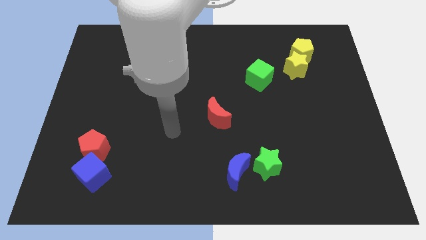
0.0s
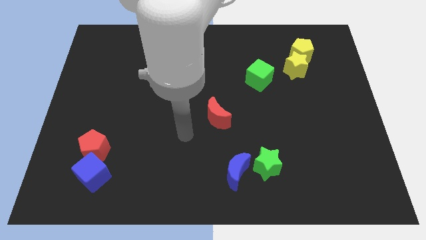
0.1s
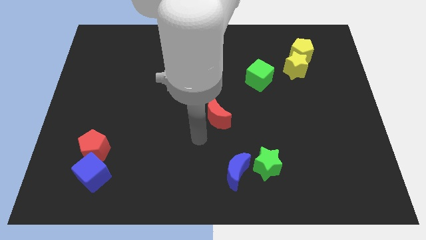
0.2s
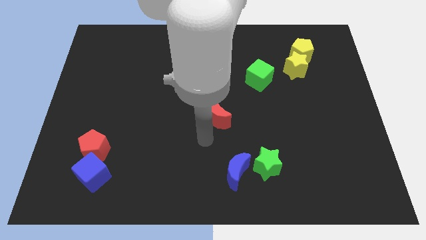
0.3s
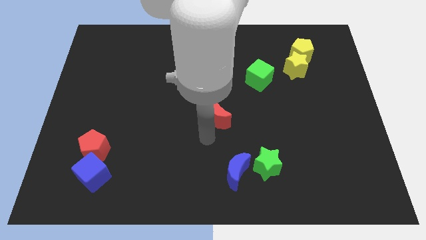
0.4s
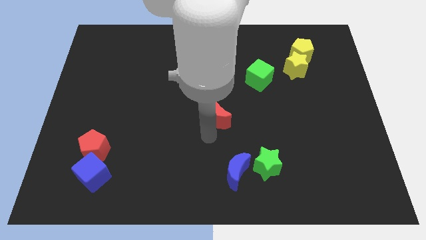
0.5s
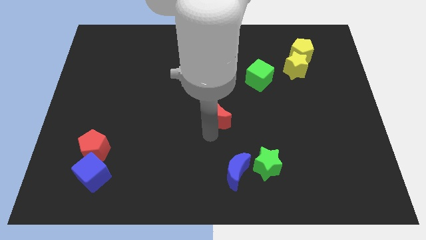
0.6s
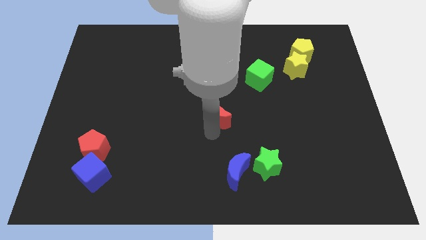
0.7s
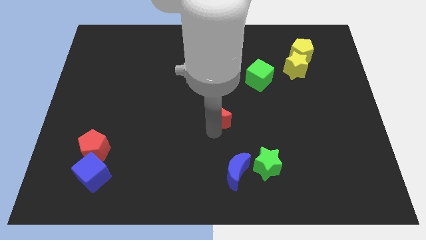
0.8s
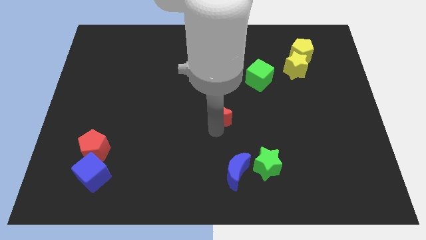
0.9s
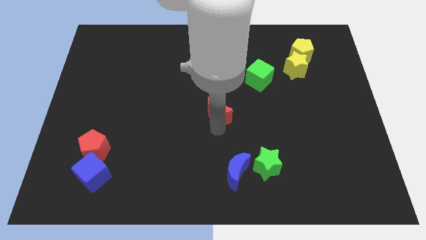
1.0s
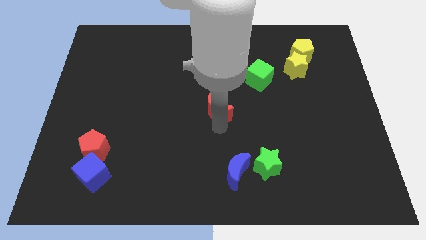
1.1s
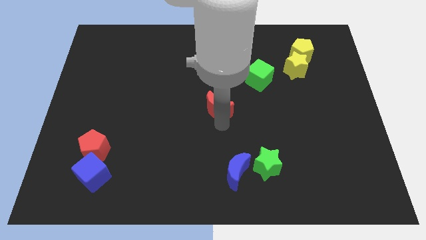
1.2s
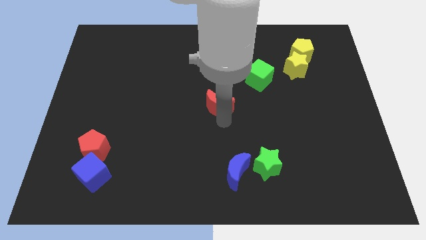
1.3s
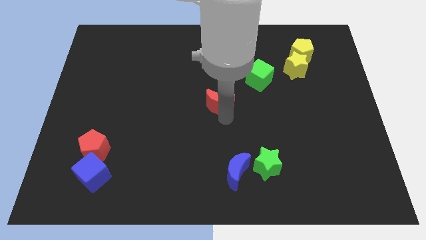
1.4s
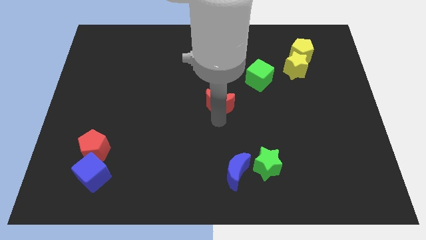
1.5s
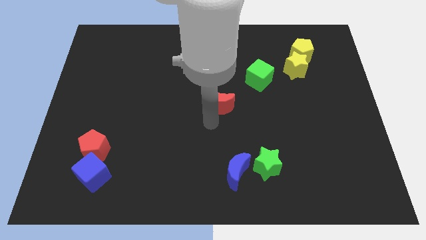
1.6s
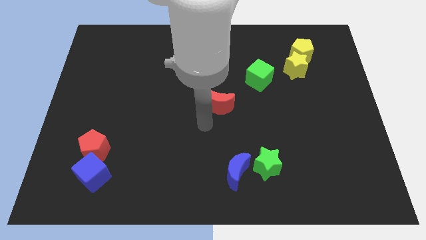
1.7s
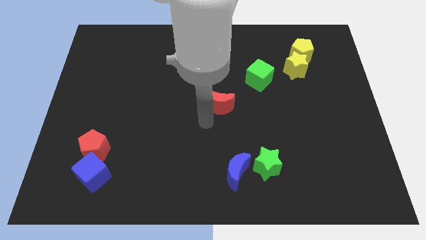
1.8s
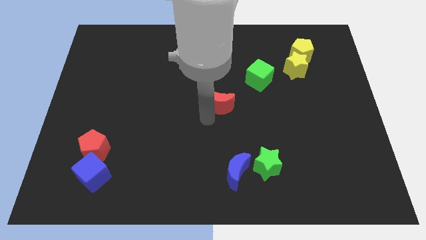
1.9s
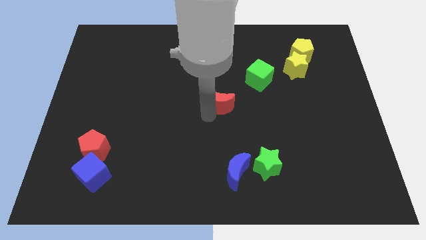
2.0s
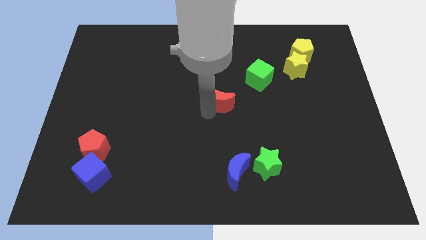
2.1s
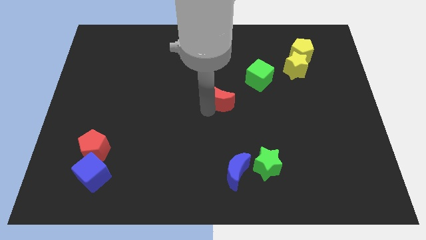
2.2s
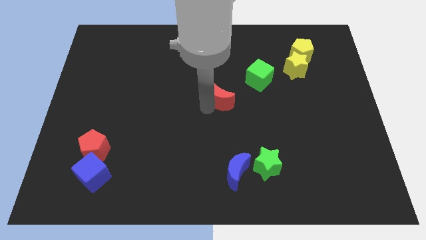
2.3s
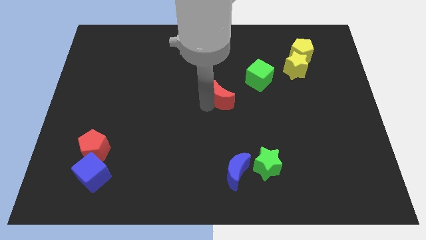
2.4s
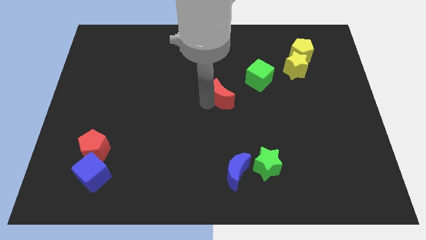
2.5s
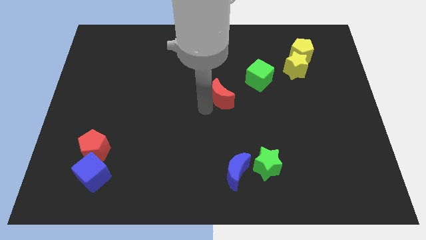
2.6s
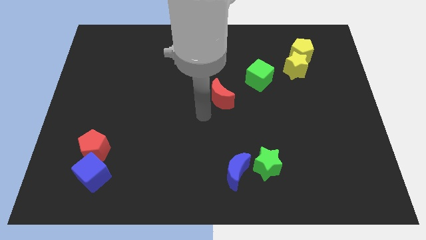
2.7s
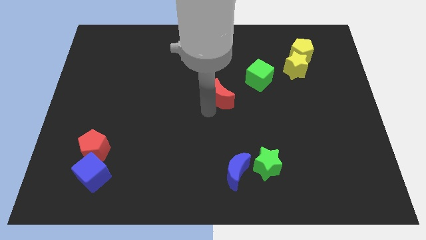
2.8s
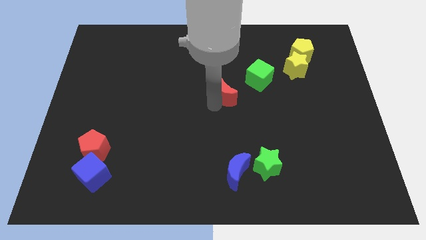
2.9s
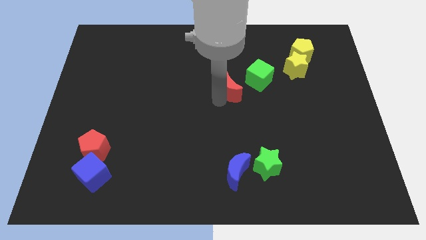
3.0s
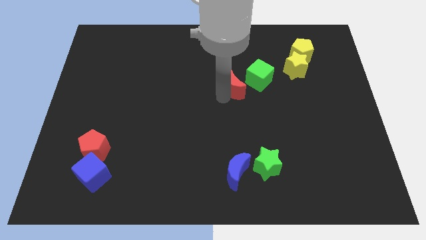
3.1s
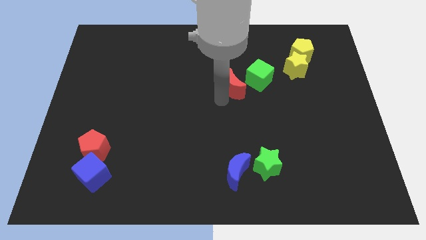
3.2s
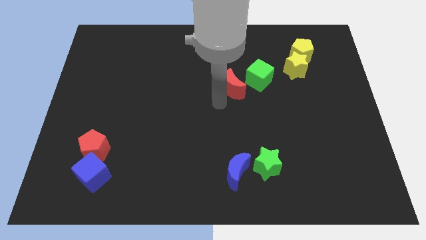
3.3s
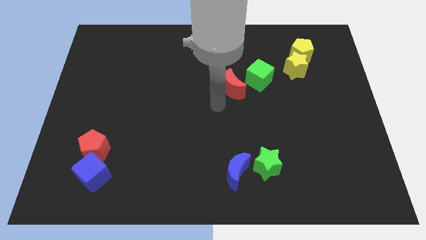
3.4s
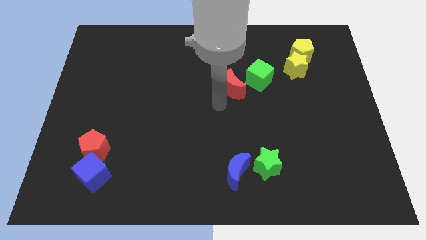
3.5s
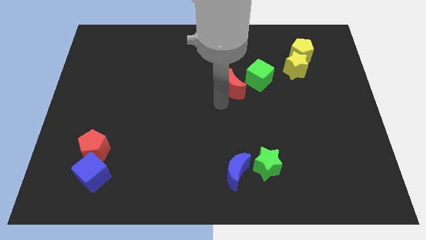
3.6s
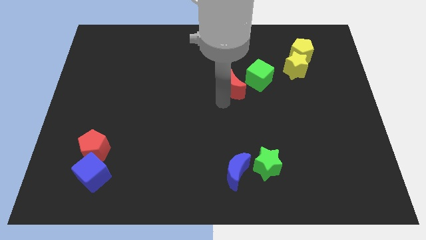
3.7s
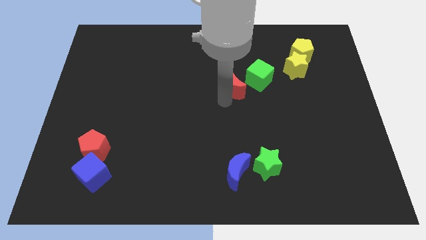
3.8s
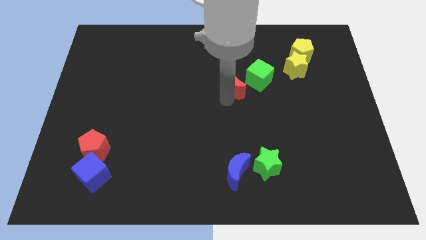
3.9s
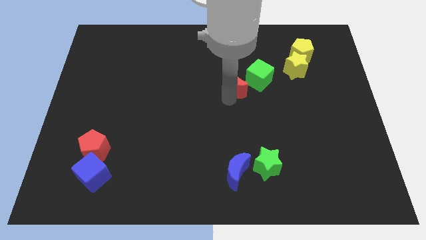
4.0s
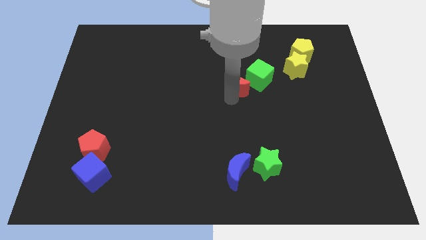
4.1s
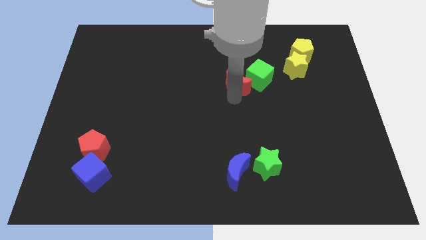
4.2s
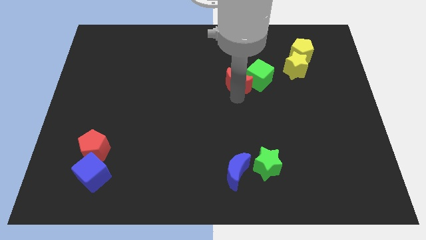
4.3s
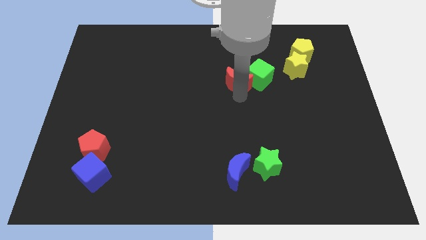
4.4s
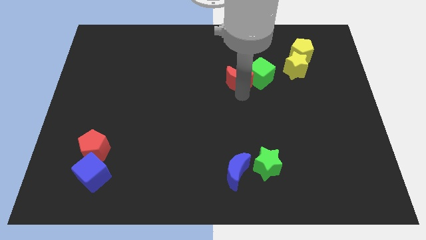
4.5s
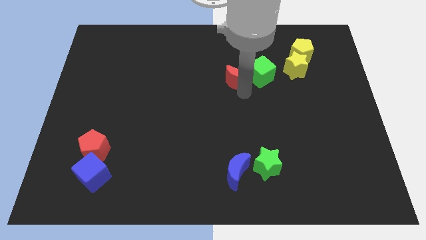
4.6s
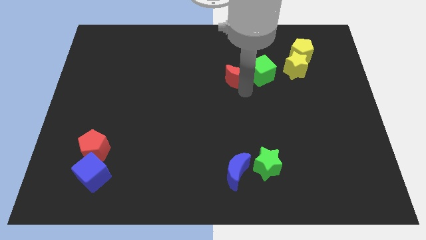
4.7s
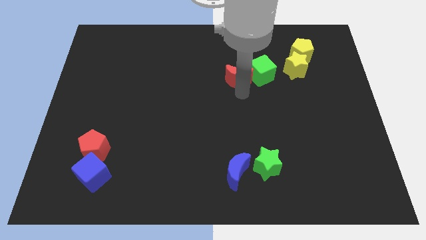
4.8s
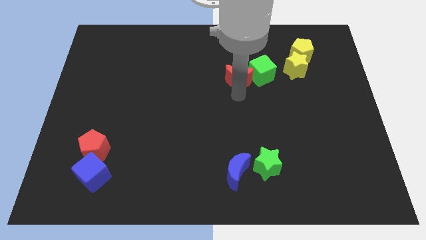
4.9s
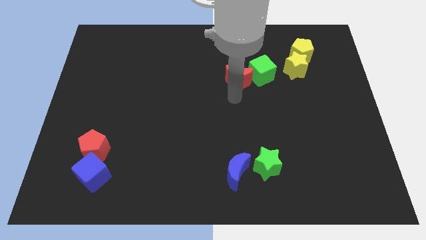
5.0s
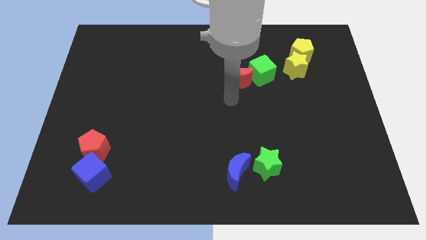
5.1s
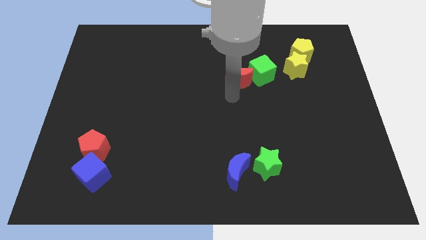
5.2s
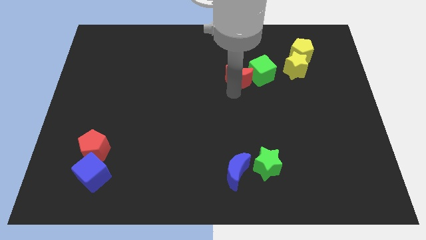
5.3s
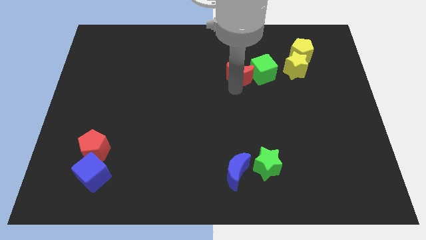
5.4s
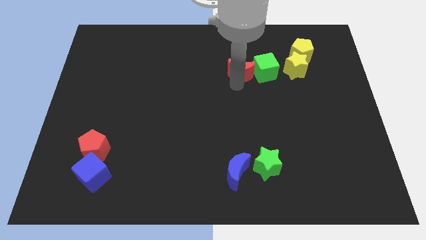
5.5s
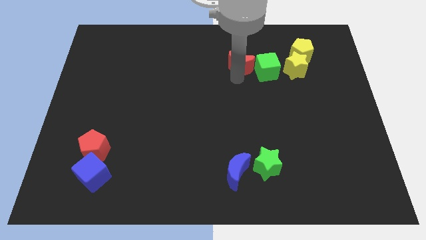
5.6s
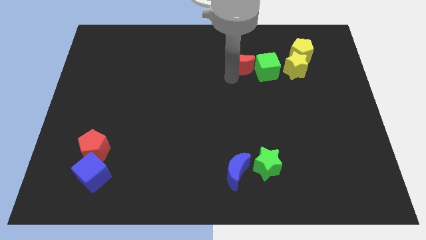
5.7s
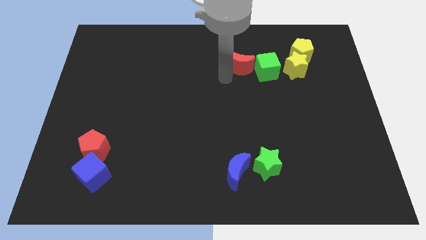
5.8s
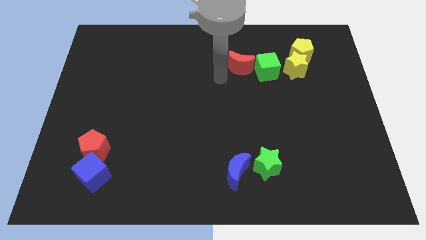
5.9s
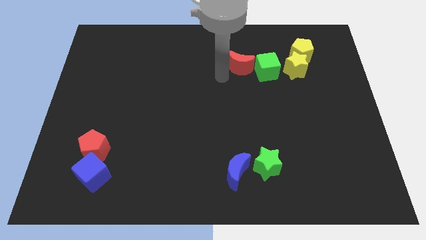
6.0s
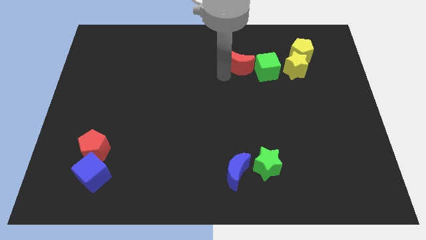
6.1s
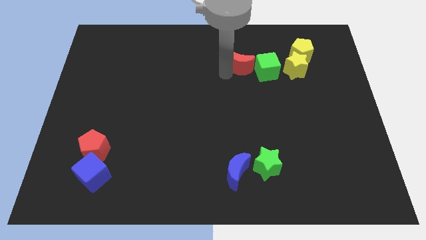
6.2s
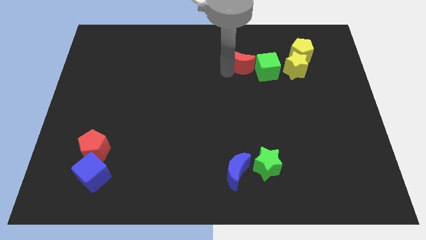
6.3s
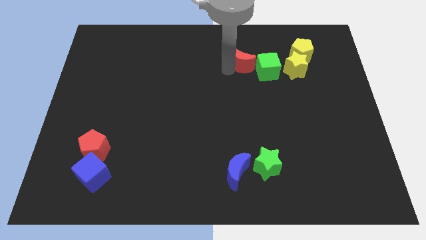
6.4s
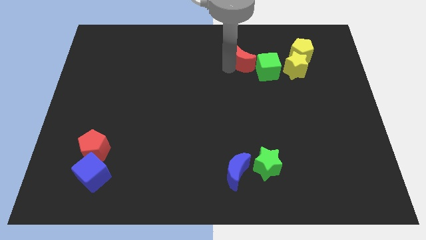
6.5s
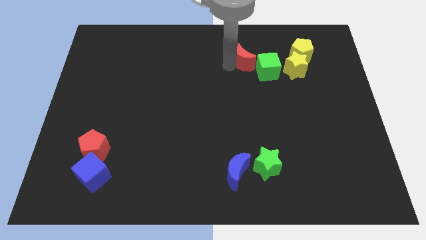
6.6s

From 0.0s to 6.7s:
put the red moon to the left of the yellow pentagon

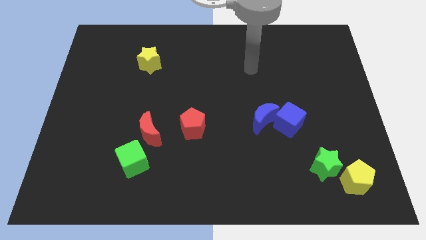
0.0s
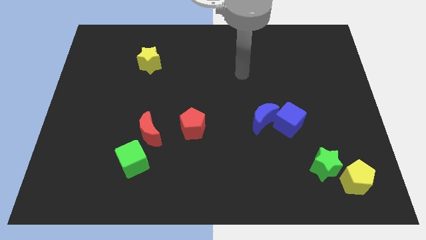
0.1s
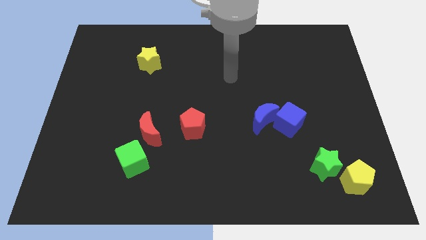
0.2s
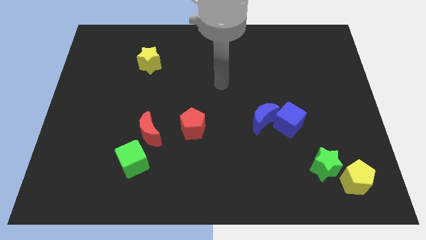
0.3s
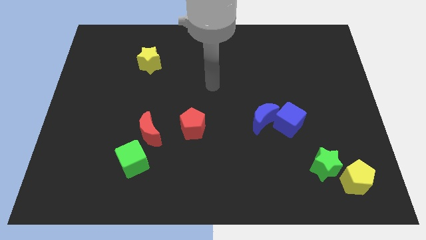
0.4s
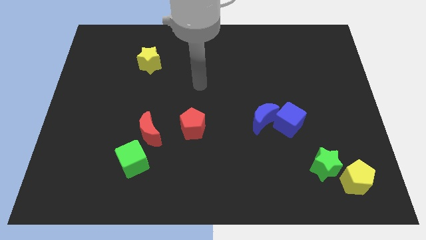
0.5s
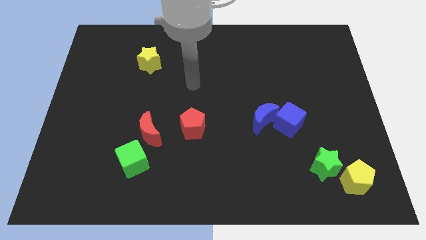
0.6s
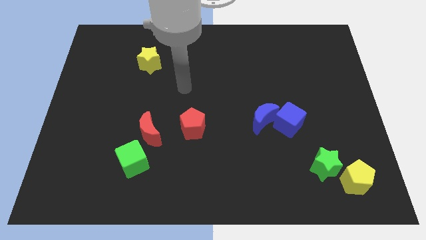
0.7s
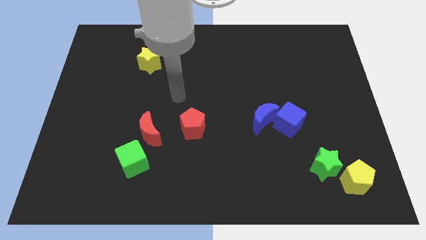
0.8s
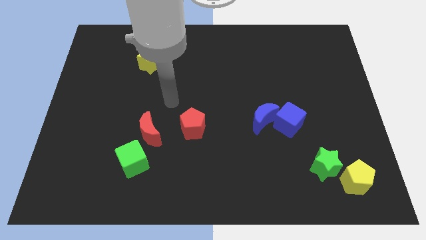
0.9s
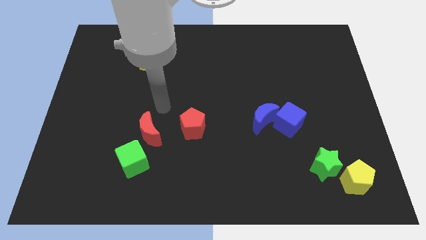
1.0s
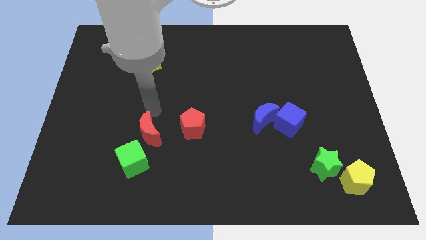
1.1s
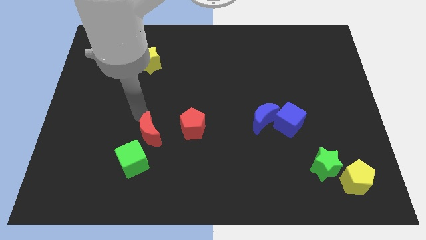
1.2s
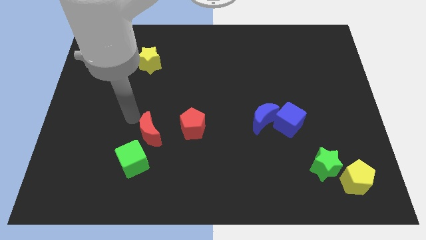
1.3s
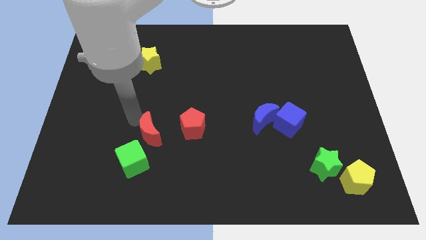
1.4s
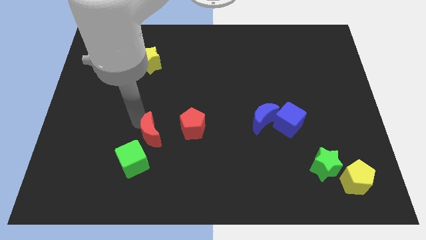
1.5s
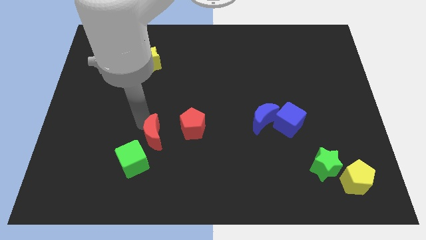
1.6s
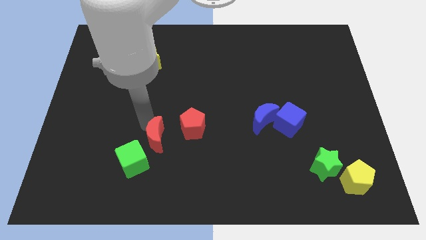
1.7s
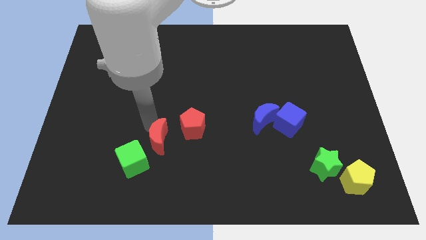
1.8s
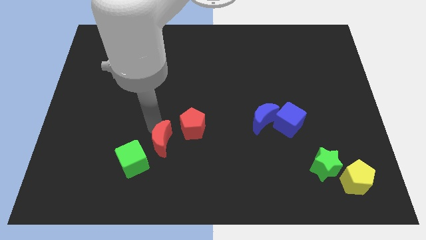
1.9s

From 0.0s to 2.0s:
push the red moon to the right side of the green cube
